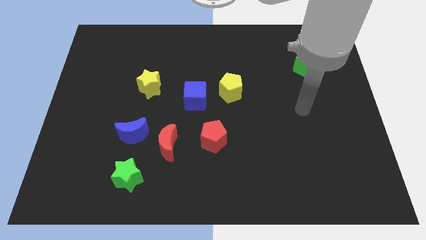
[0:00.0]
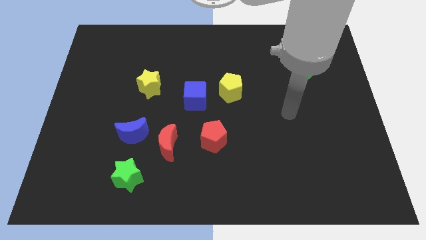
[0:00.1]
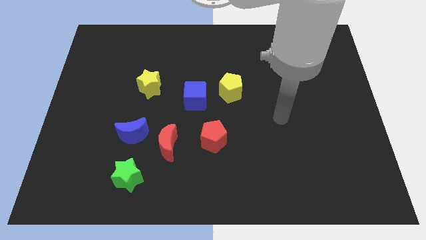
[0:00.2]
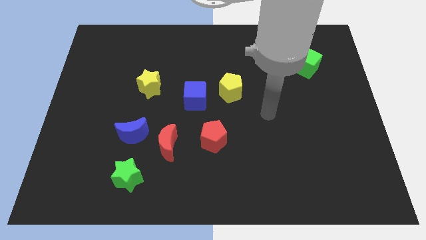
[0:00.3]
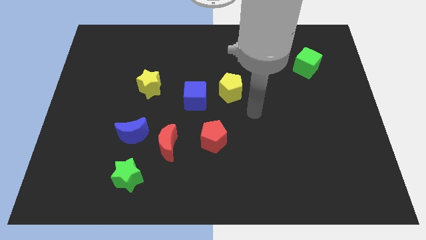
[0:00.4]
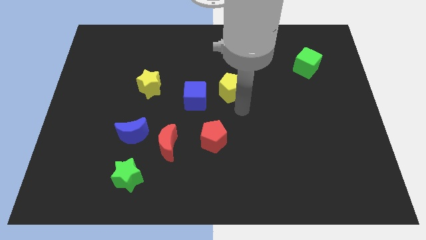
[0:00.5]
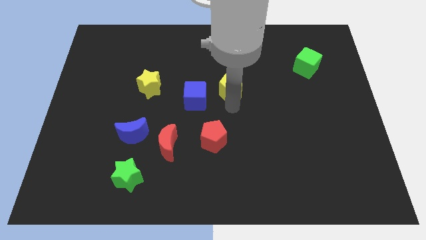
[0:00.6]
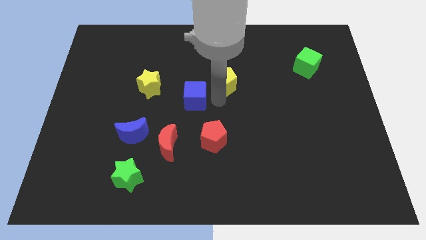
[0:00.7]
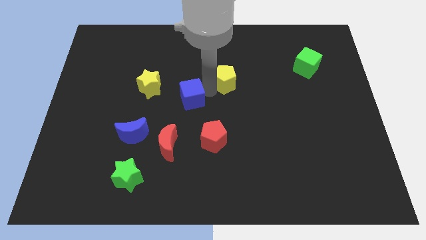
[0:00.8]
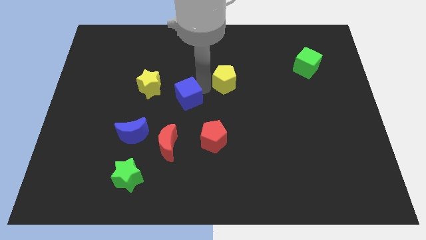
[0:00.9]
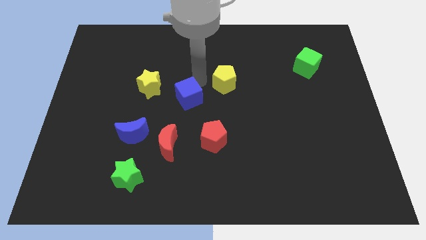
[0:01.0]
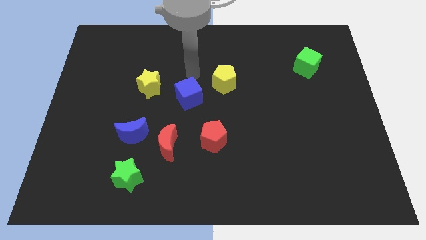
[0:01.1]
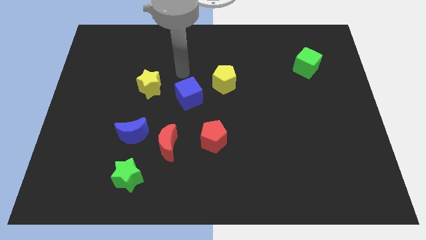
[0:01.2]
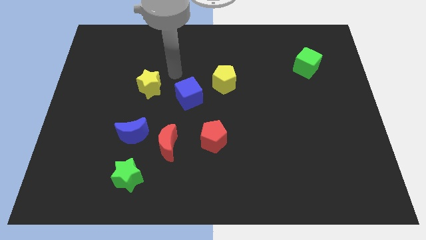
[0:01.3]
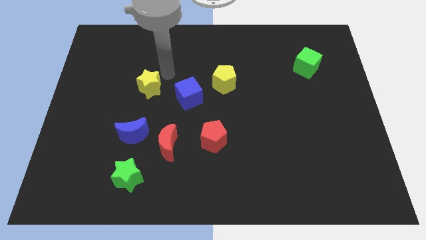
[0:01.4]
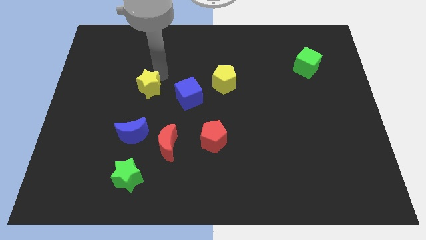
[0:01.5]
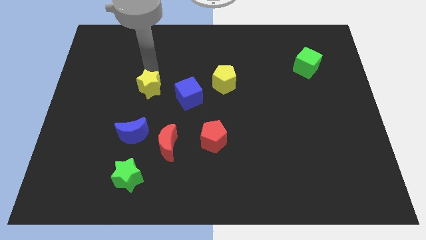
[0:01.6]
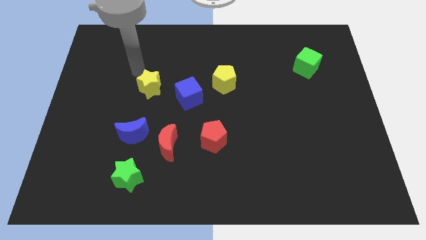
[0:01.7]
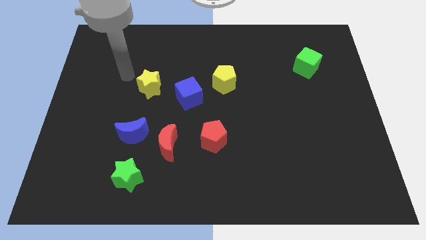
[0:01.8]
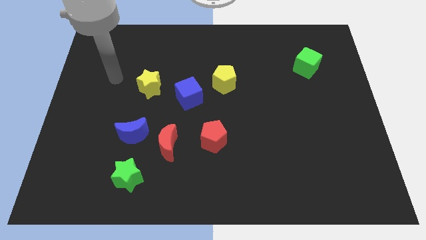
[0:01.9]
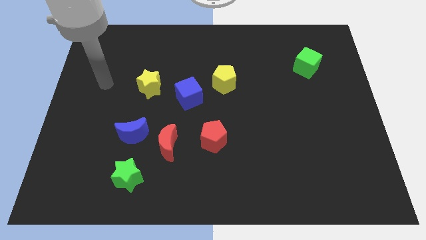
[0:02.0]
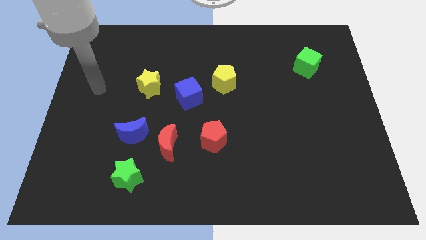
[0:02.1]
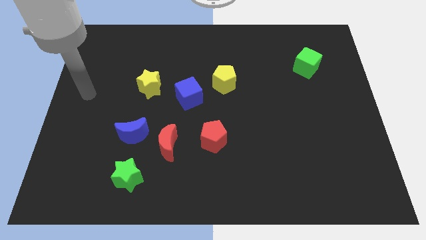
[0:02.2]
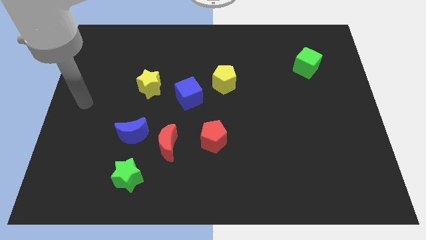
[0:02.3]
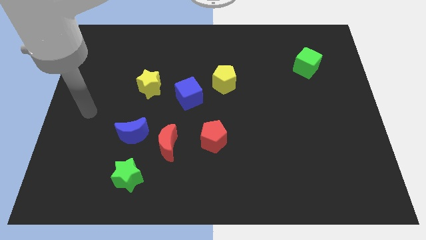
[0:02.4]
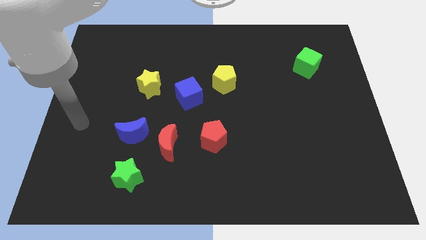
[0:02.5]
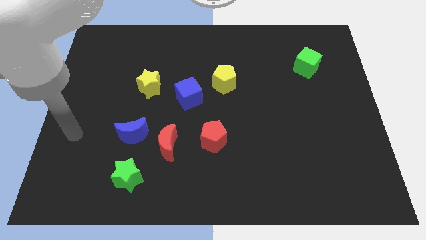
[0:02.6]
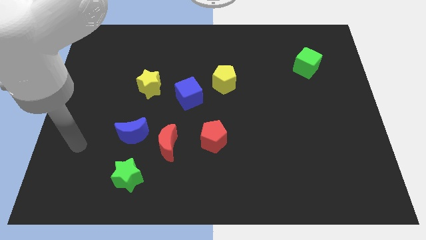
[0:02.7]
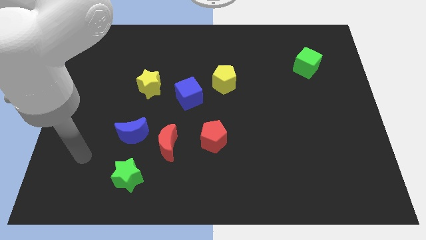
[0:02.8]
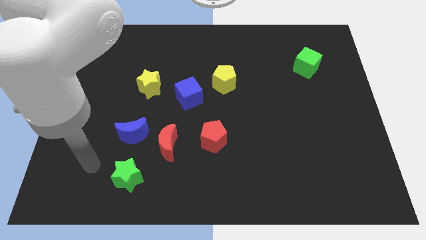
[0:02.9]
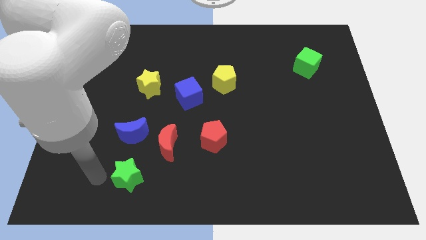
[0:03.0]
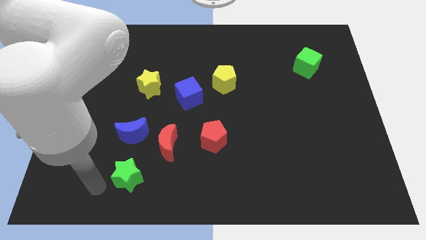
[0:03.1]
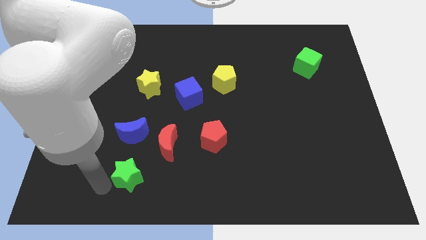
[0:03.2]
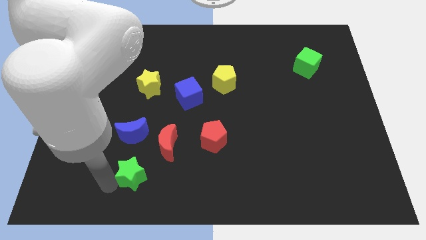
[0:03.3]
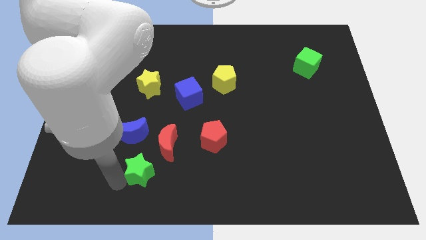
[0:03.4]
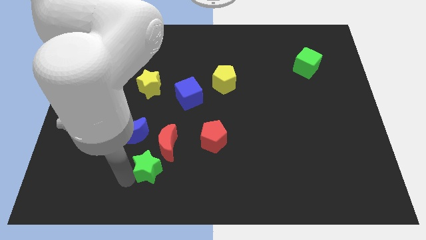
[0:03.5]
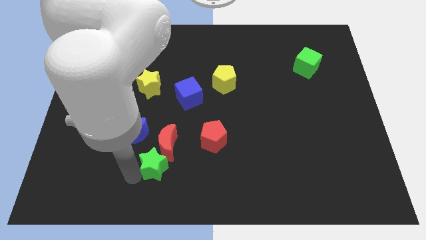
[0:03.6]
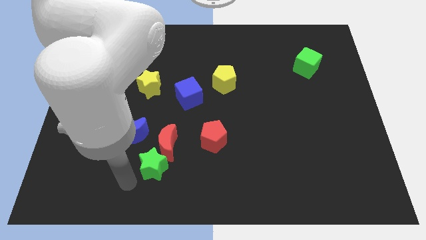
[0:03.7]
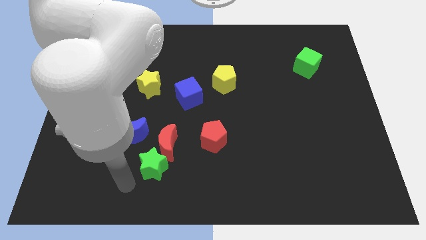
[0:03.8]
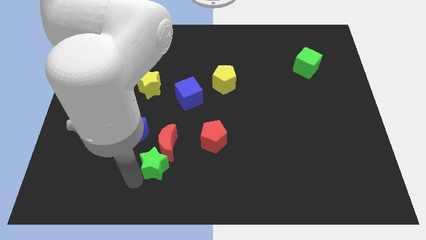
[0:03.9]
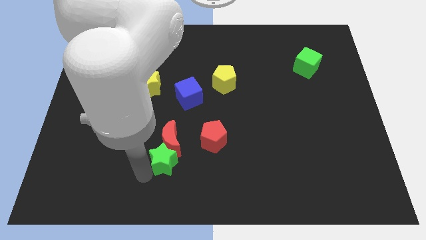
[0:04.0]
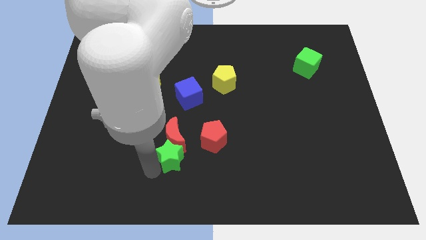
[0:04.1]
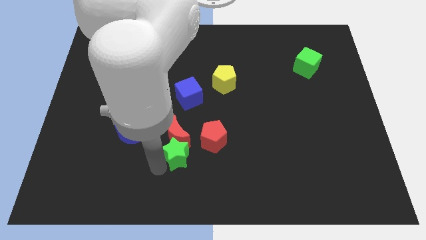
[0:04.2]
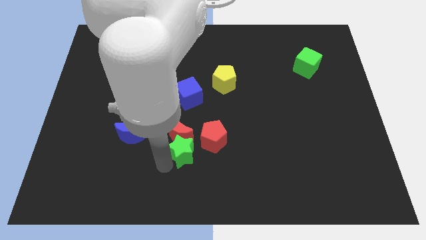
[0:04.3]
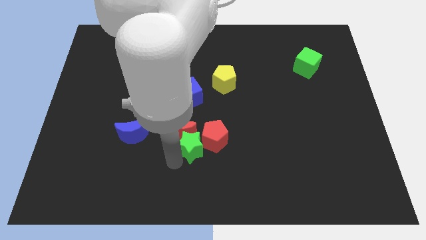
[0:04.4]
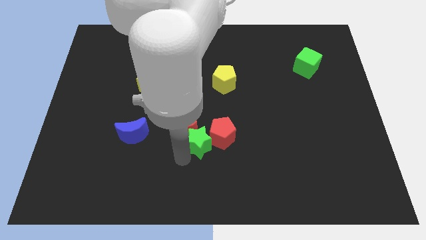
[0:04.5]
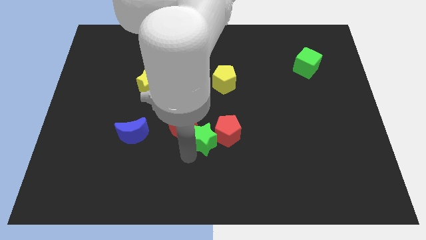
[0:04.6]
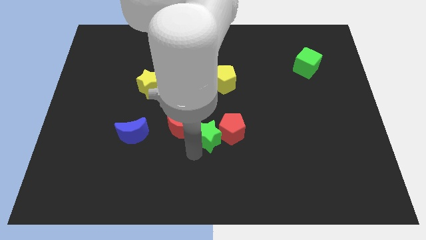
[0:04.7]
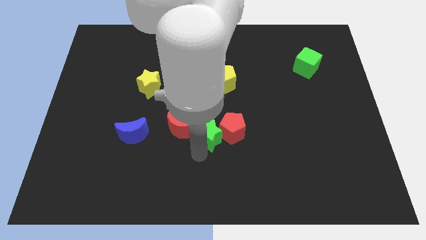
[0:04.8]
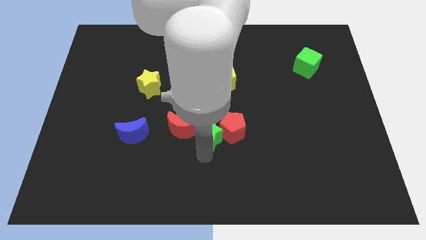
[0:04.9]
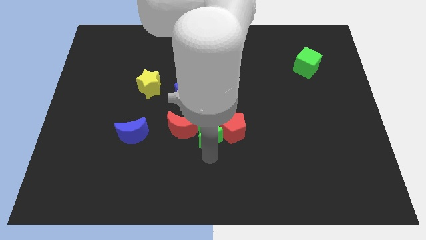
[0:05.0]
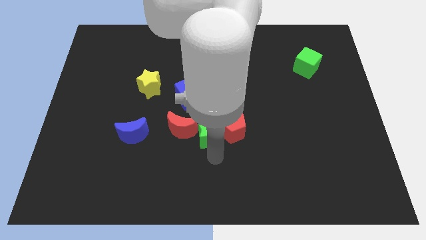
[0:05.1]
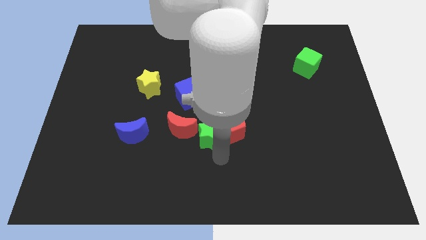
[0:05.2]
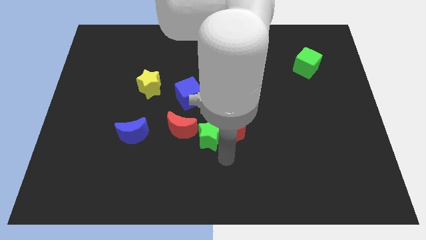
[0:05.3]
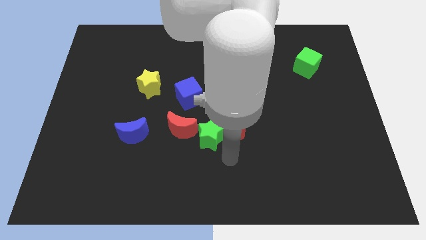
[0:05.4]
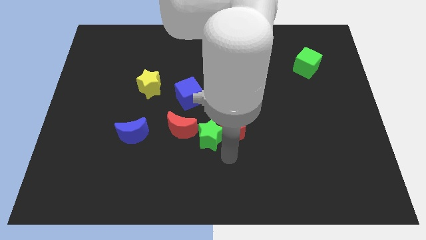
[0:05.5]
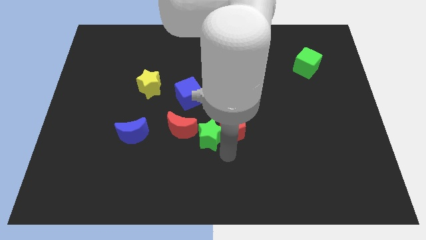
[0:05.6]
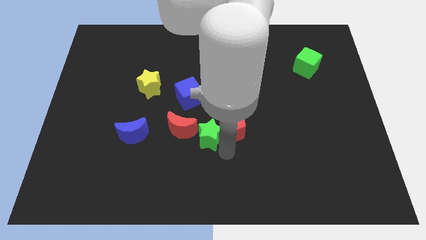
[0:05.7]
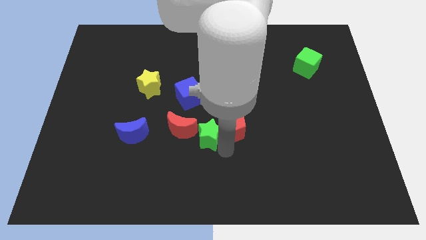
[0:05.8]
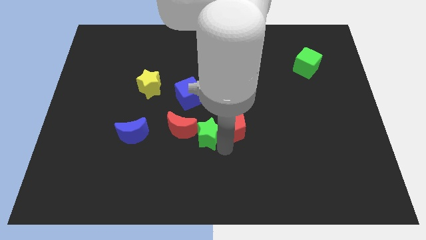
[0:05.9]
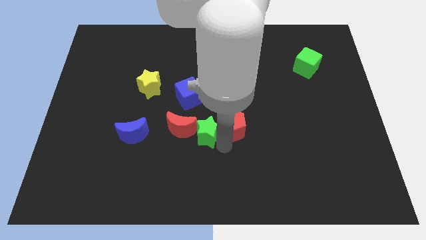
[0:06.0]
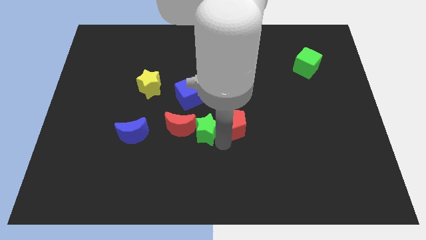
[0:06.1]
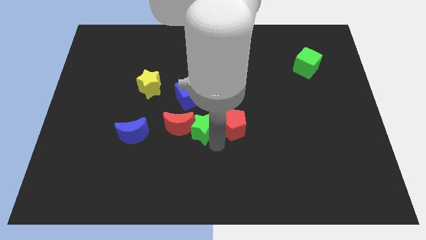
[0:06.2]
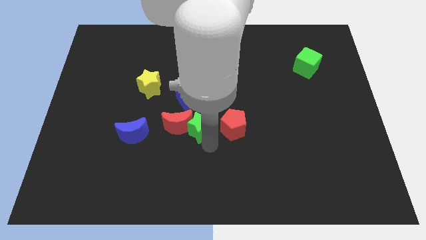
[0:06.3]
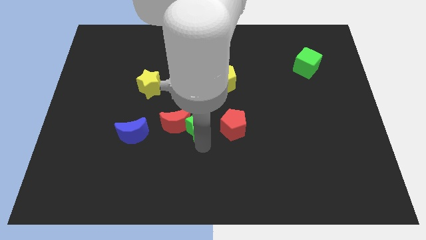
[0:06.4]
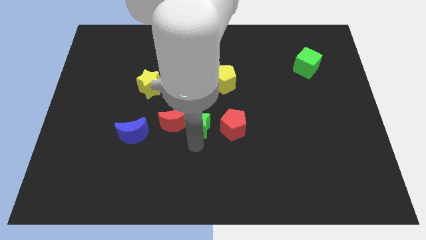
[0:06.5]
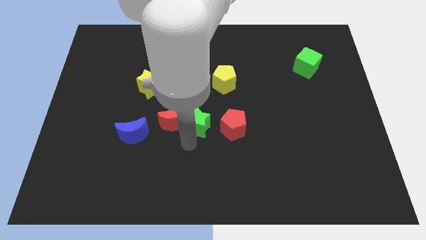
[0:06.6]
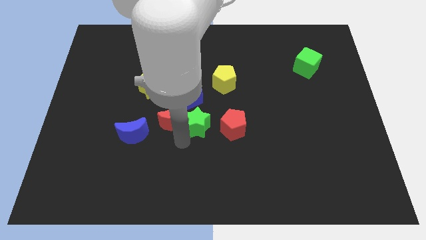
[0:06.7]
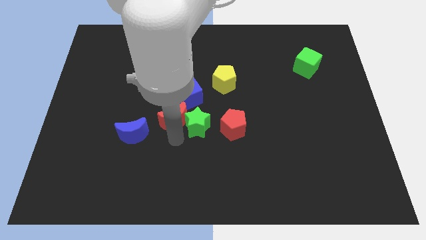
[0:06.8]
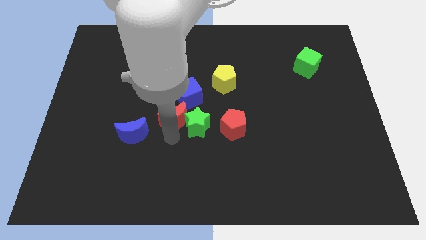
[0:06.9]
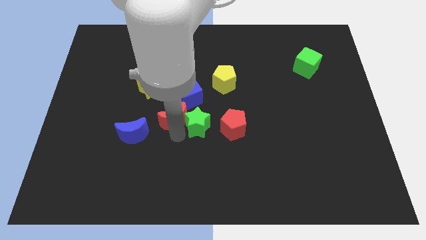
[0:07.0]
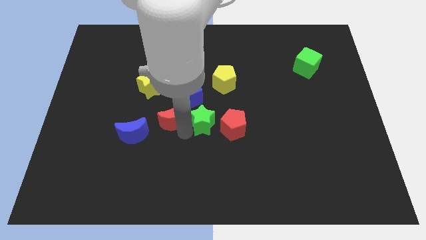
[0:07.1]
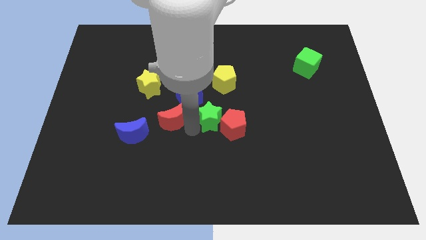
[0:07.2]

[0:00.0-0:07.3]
push the green star to the bottom side of the yellow pentagon
